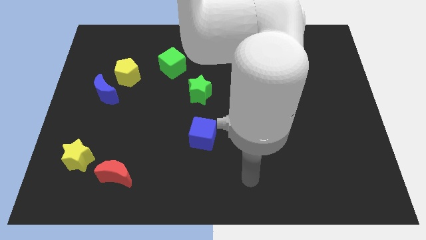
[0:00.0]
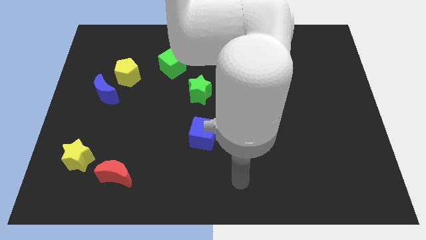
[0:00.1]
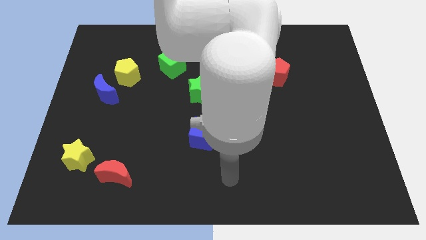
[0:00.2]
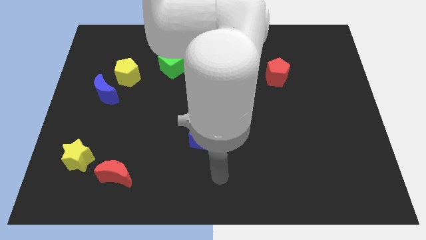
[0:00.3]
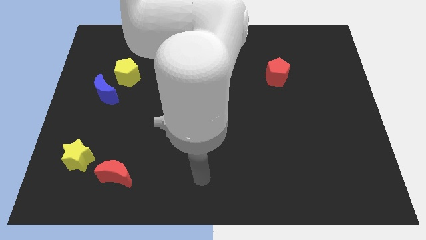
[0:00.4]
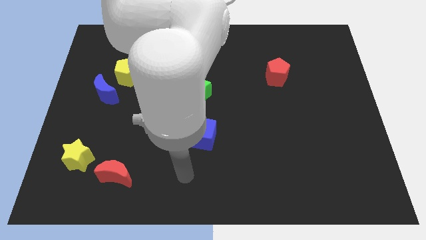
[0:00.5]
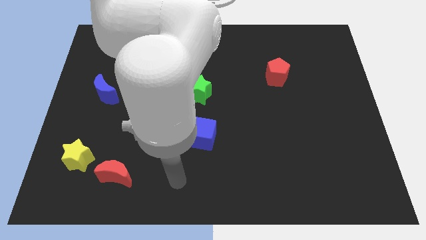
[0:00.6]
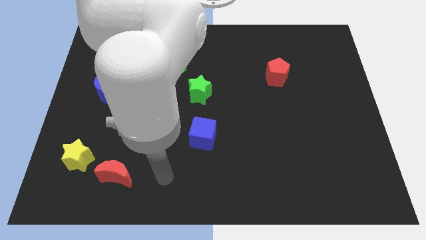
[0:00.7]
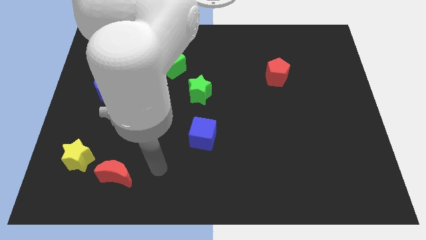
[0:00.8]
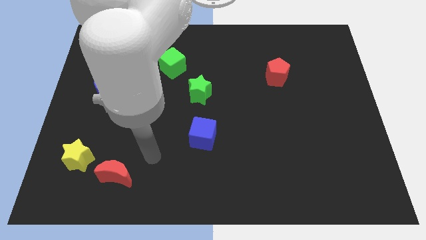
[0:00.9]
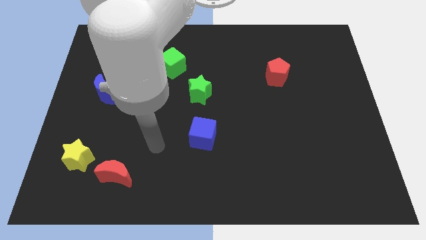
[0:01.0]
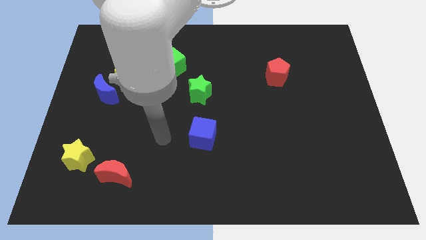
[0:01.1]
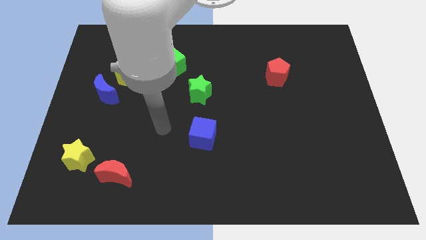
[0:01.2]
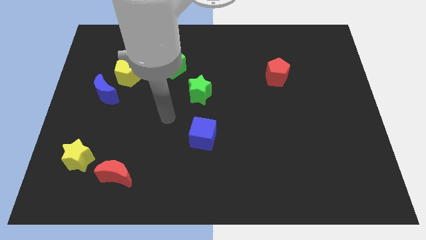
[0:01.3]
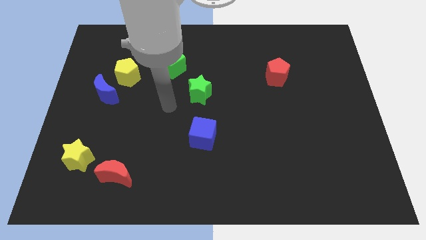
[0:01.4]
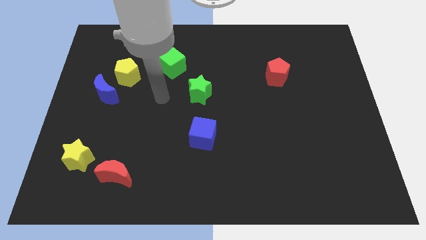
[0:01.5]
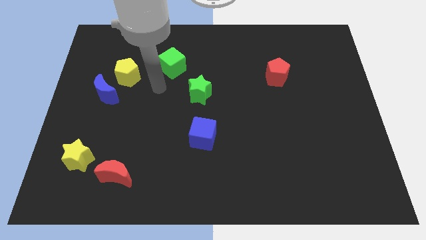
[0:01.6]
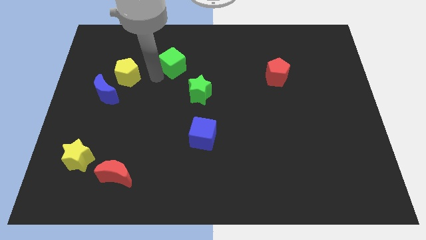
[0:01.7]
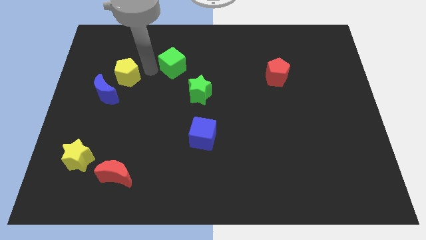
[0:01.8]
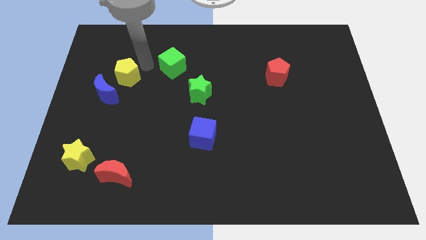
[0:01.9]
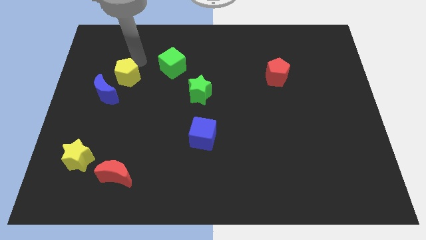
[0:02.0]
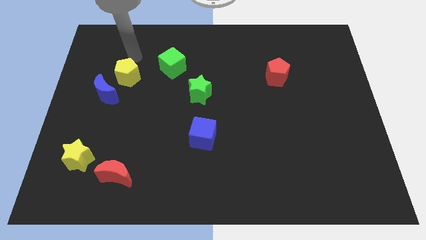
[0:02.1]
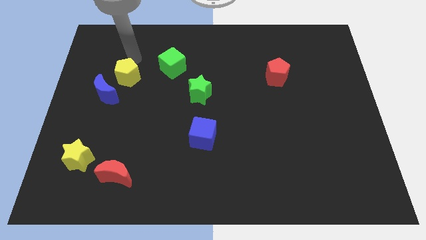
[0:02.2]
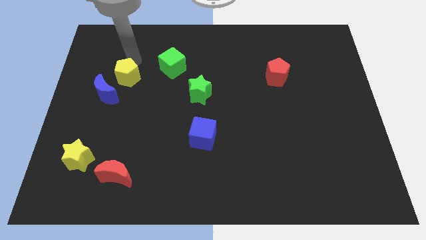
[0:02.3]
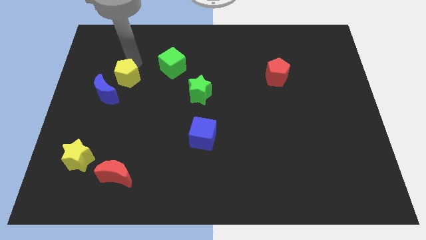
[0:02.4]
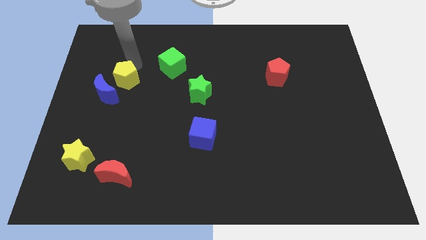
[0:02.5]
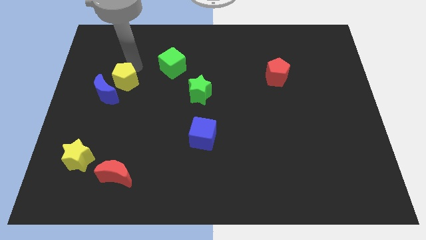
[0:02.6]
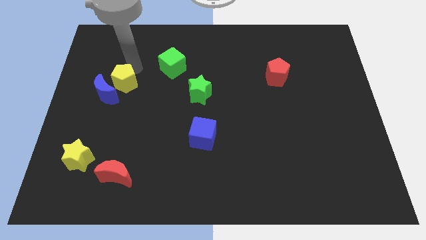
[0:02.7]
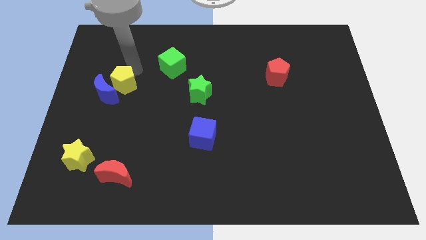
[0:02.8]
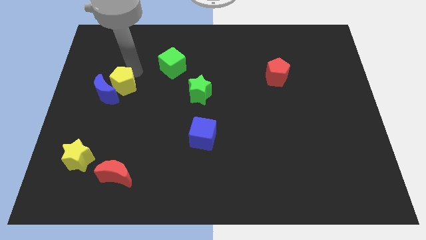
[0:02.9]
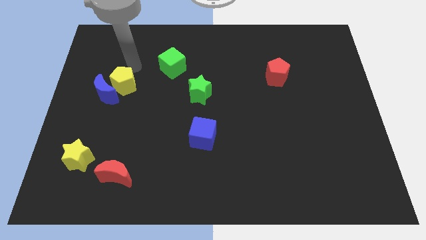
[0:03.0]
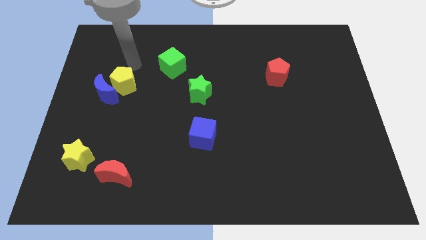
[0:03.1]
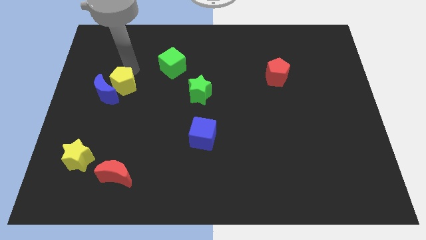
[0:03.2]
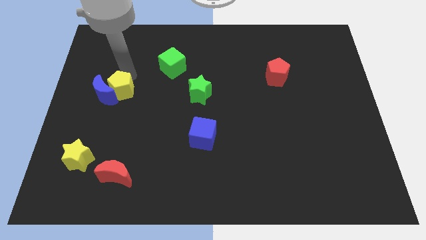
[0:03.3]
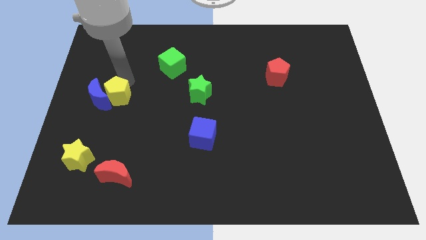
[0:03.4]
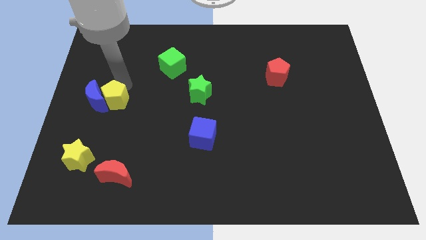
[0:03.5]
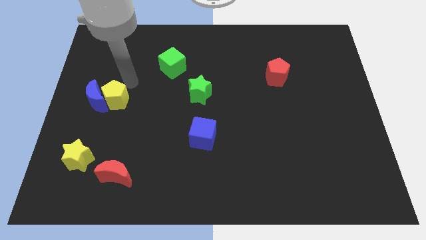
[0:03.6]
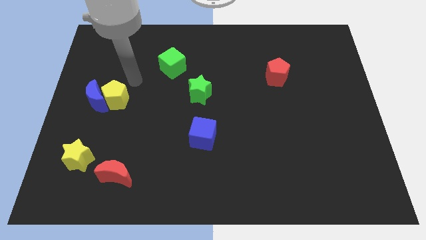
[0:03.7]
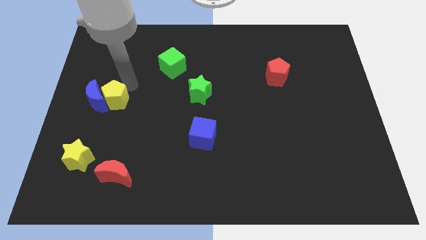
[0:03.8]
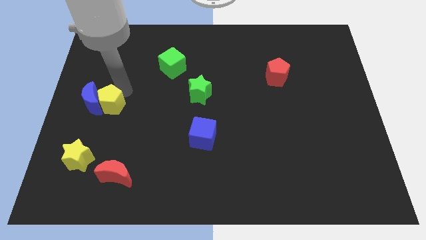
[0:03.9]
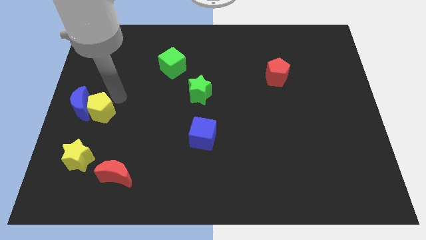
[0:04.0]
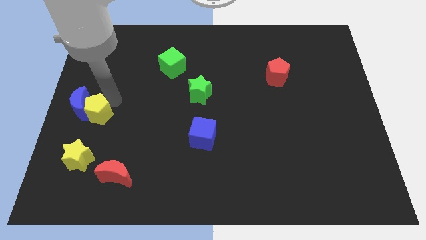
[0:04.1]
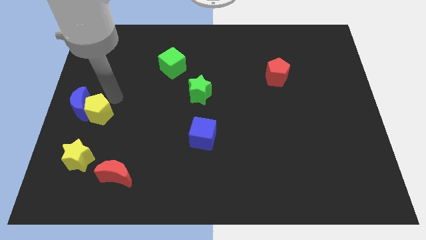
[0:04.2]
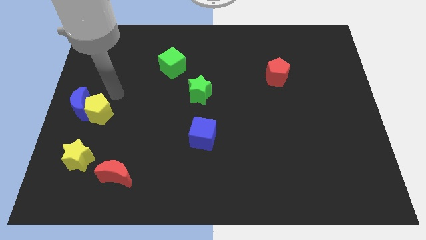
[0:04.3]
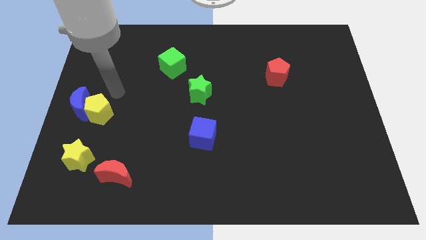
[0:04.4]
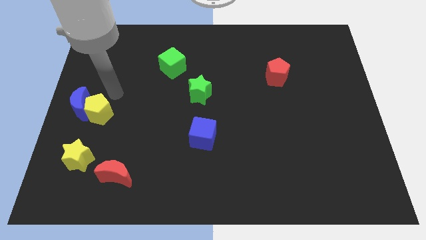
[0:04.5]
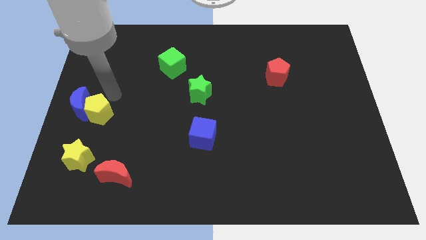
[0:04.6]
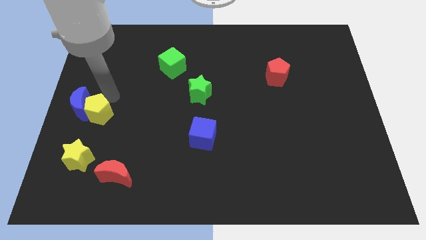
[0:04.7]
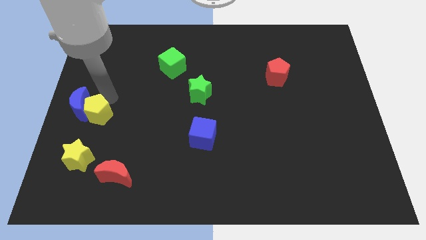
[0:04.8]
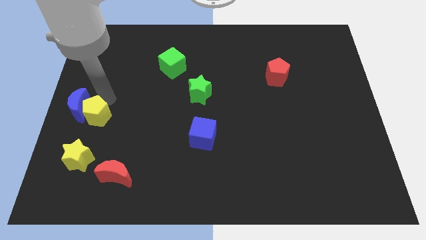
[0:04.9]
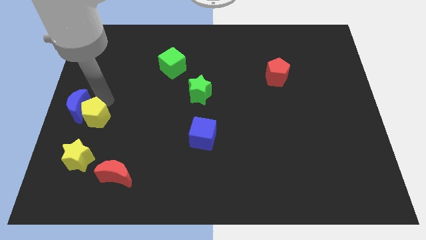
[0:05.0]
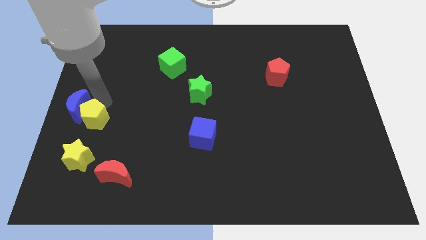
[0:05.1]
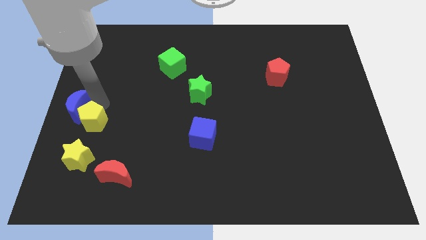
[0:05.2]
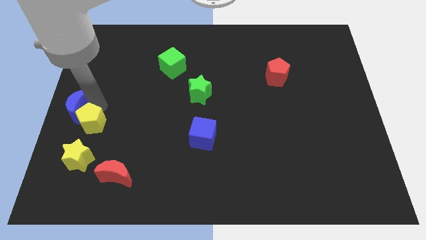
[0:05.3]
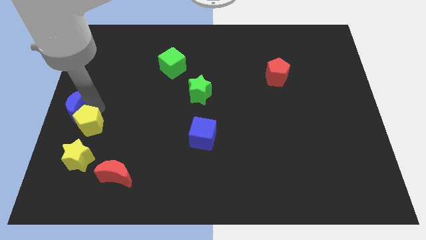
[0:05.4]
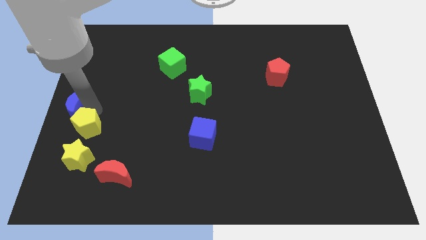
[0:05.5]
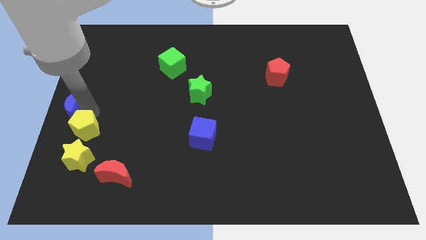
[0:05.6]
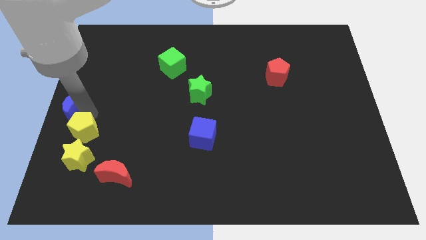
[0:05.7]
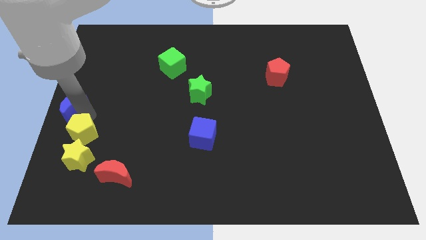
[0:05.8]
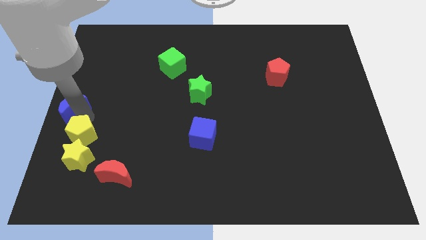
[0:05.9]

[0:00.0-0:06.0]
move the yellow pentagon to the yellow star

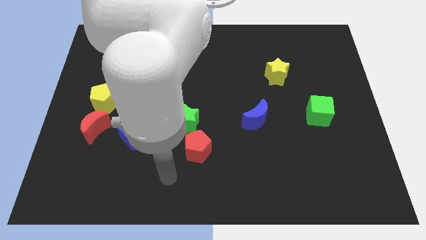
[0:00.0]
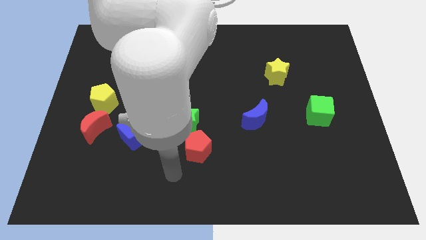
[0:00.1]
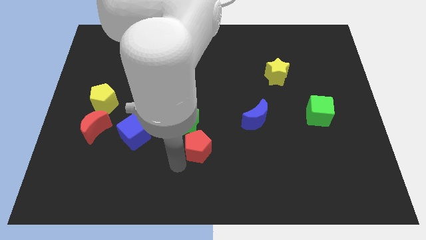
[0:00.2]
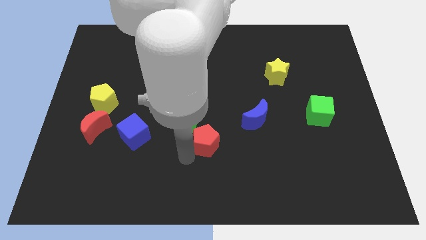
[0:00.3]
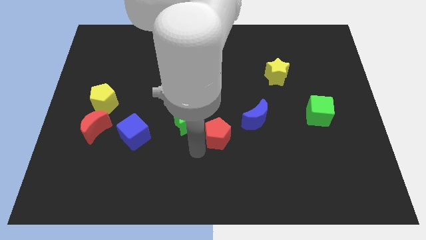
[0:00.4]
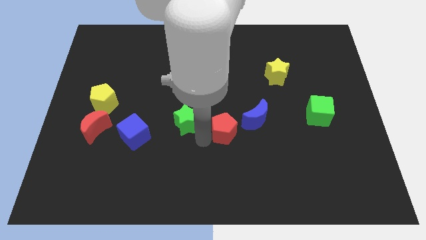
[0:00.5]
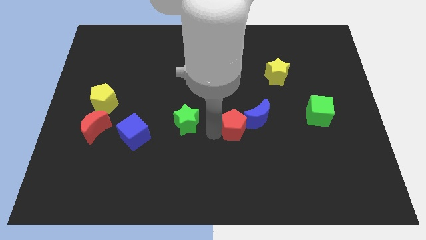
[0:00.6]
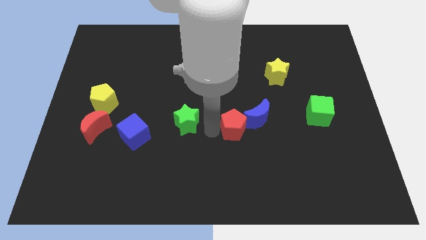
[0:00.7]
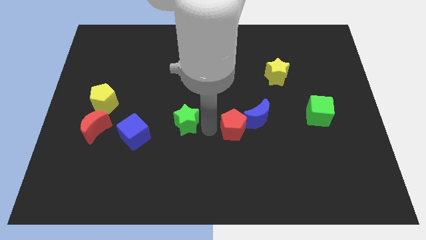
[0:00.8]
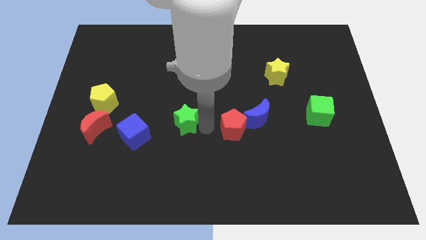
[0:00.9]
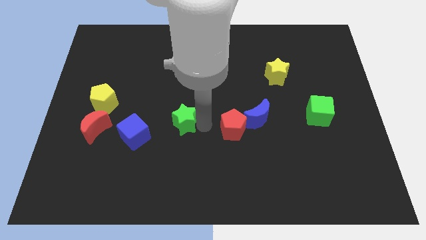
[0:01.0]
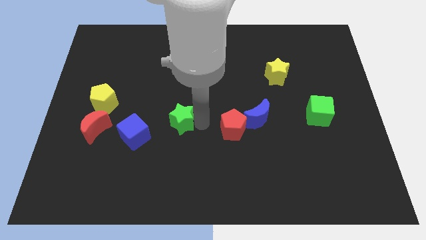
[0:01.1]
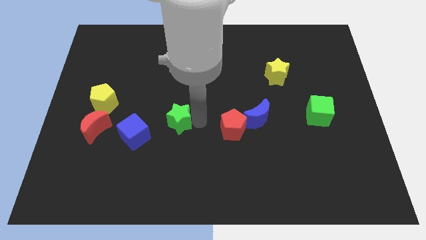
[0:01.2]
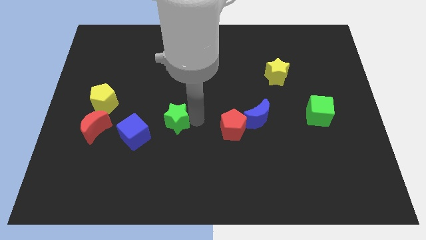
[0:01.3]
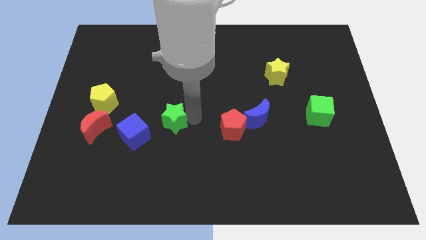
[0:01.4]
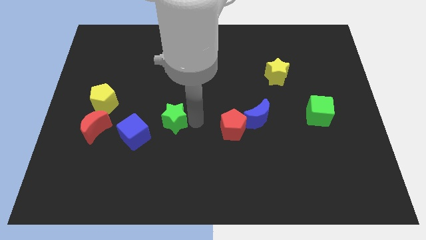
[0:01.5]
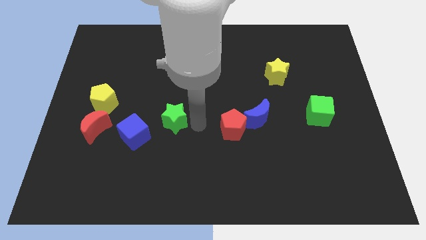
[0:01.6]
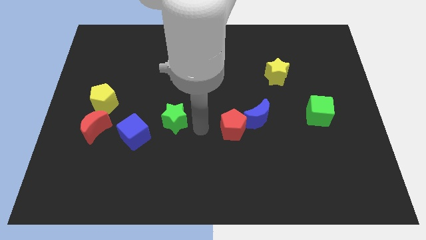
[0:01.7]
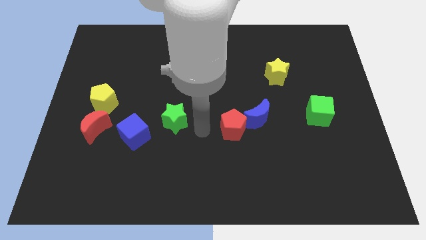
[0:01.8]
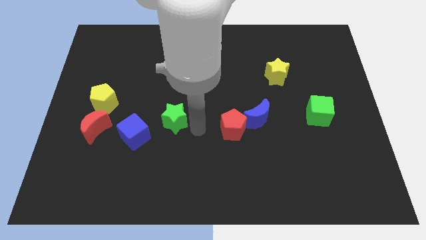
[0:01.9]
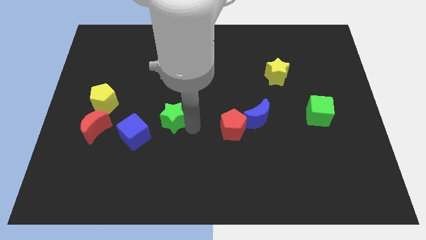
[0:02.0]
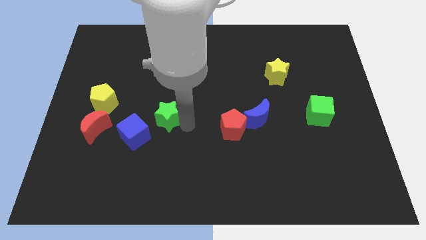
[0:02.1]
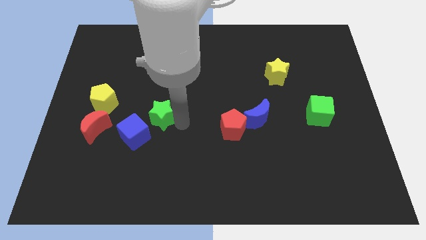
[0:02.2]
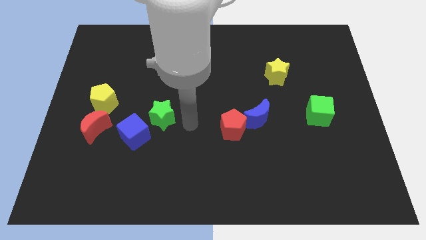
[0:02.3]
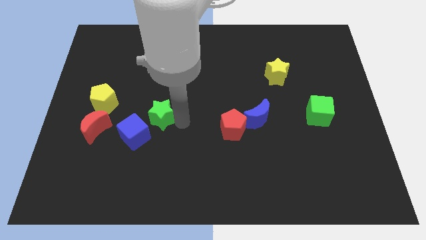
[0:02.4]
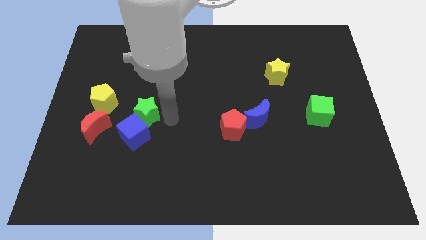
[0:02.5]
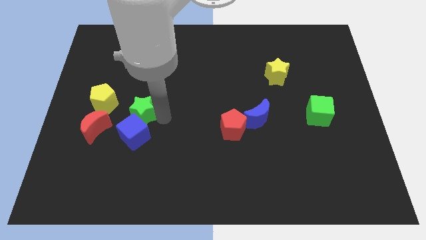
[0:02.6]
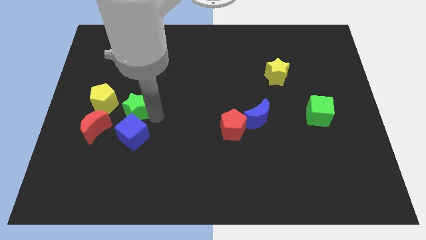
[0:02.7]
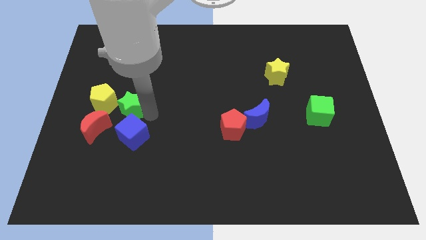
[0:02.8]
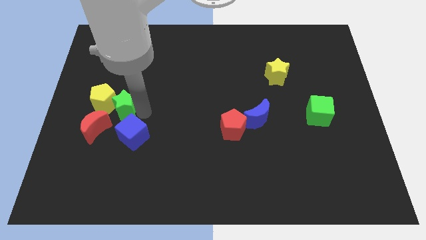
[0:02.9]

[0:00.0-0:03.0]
slide the green star close to the yellow pentagon
